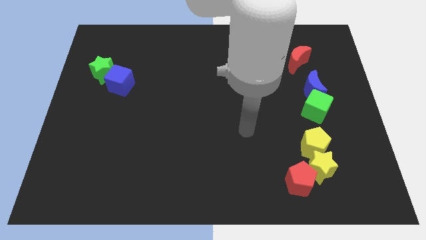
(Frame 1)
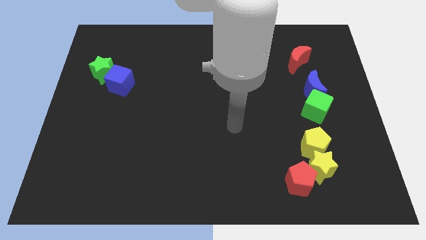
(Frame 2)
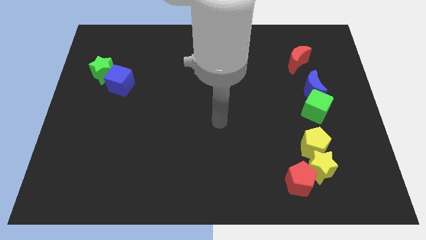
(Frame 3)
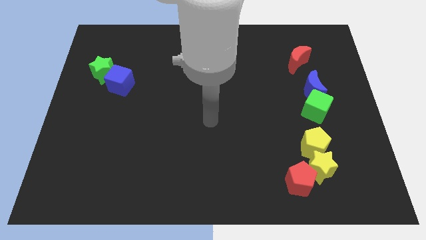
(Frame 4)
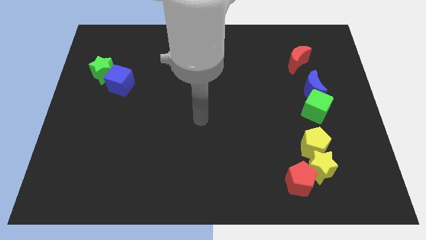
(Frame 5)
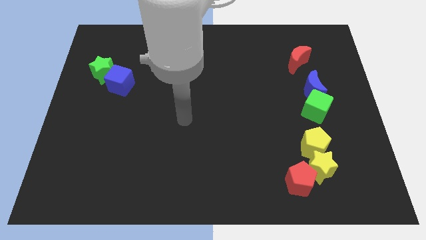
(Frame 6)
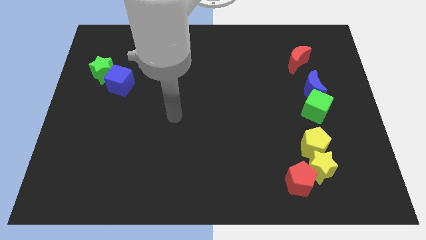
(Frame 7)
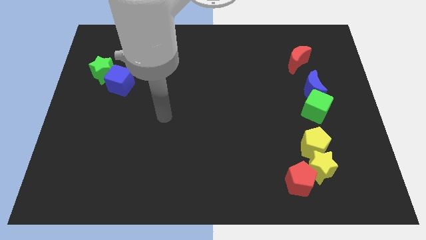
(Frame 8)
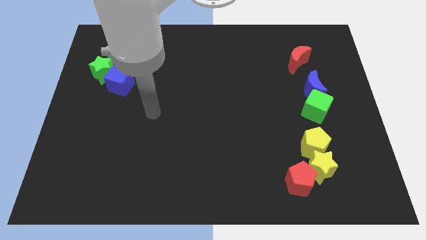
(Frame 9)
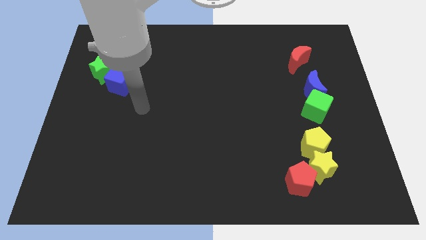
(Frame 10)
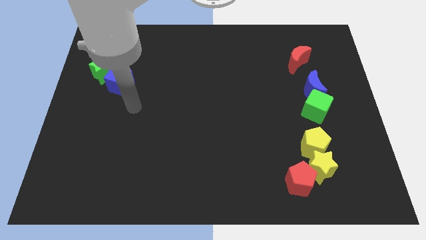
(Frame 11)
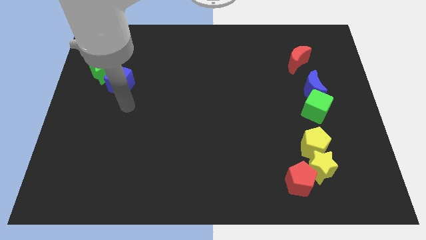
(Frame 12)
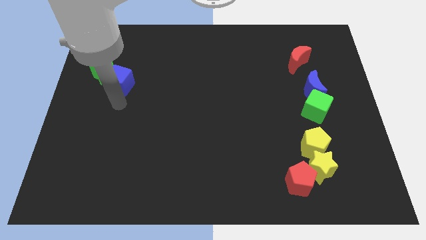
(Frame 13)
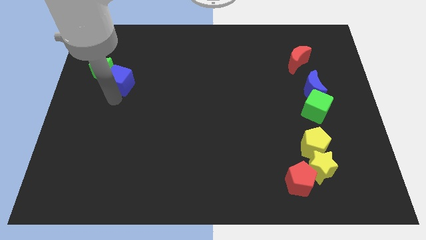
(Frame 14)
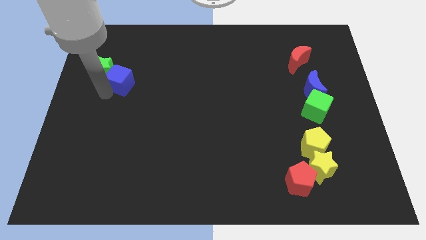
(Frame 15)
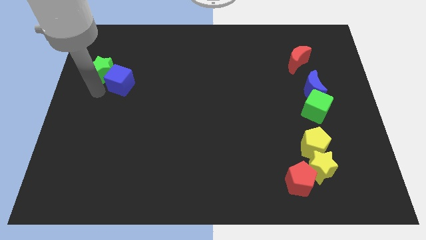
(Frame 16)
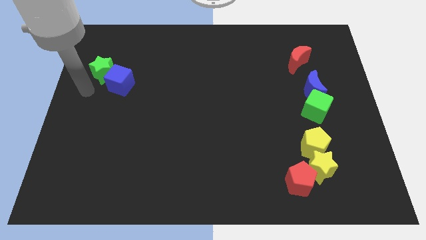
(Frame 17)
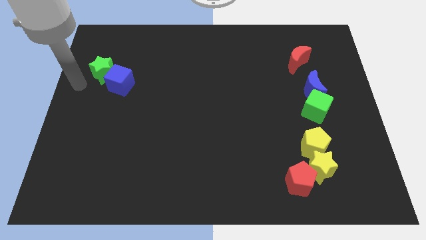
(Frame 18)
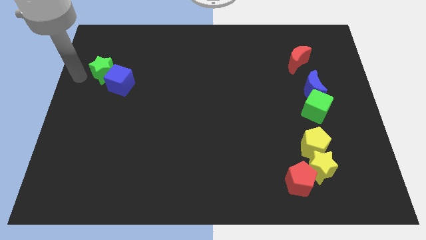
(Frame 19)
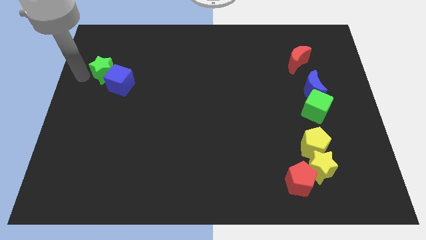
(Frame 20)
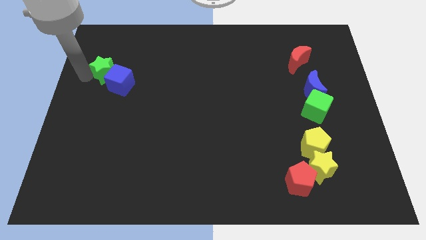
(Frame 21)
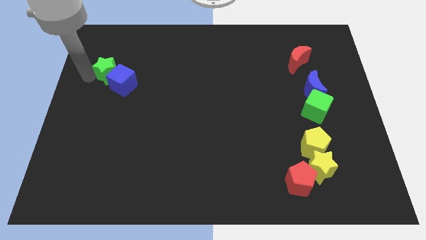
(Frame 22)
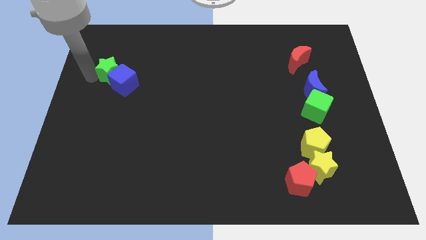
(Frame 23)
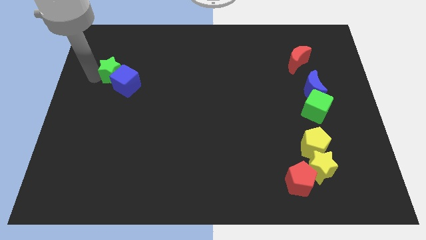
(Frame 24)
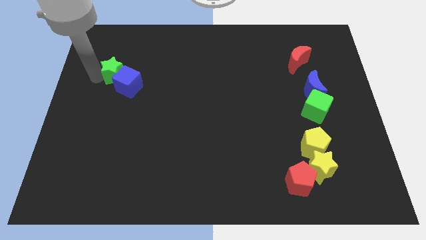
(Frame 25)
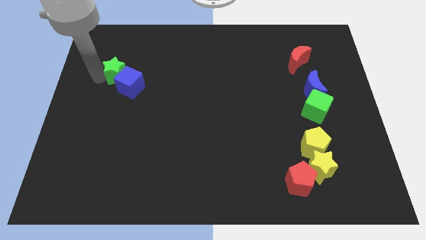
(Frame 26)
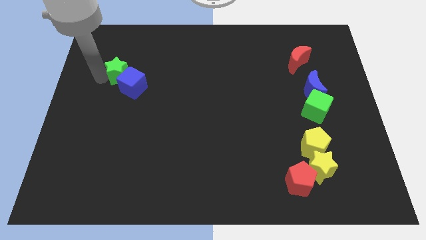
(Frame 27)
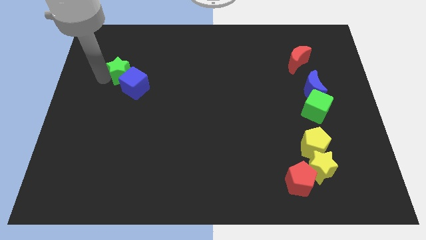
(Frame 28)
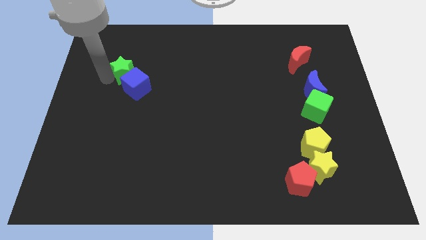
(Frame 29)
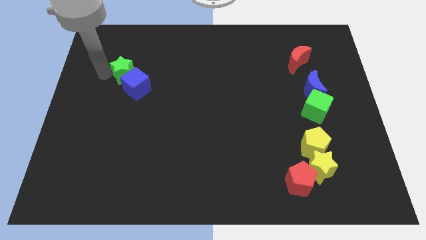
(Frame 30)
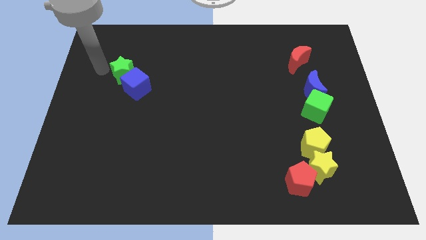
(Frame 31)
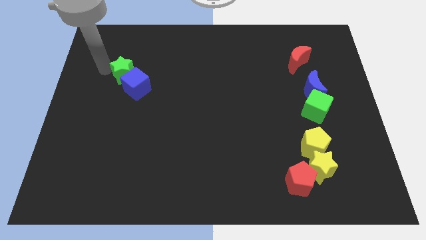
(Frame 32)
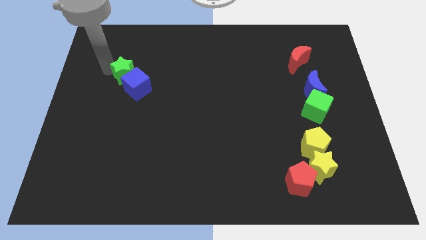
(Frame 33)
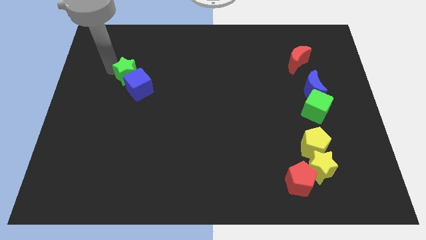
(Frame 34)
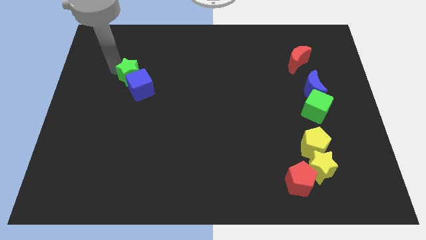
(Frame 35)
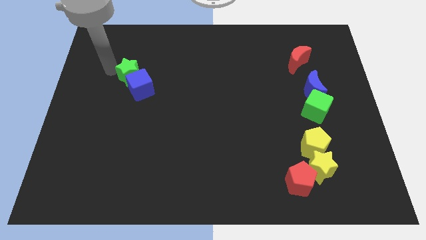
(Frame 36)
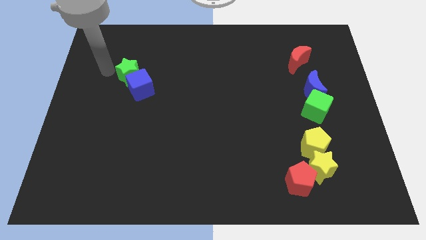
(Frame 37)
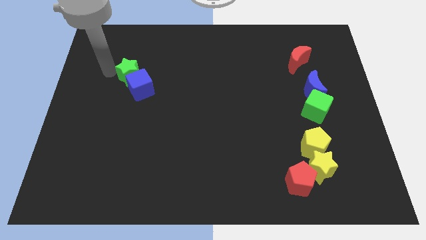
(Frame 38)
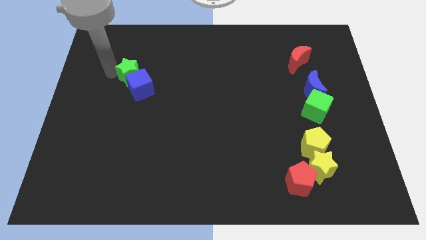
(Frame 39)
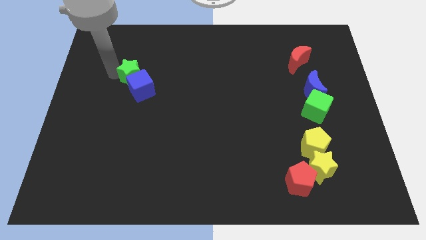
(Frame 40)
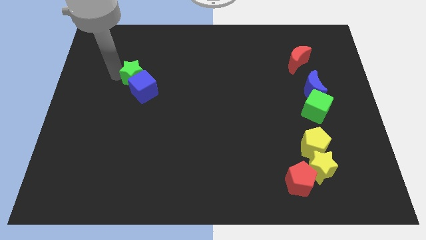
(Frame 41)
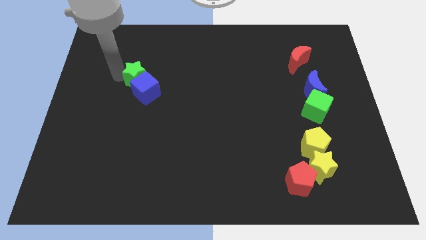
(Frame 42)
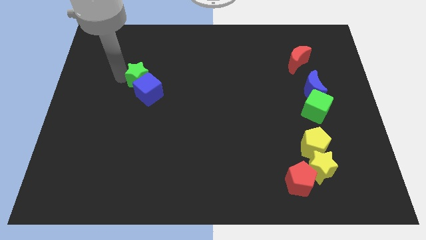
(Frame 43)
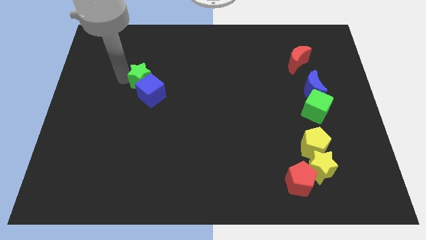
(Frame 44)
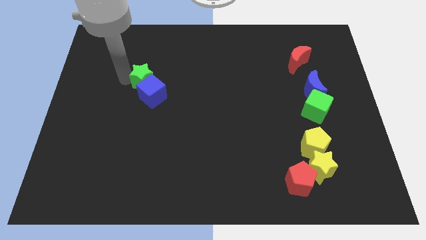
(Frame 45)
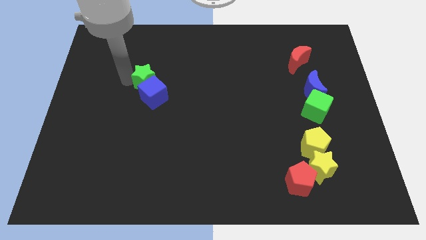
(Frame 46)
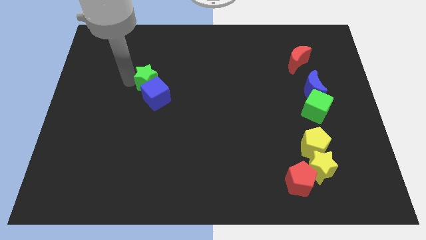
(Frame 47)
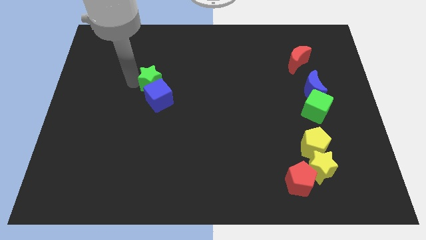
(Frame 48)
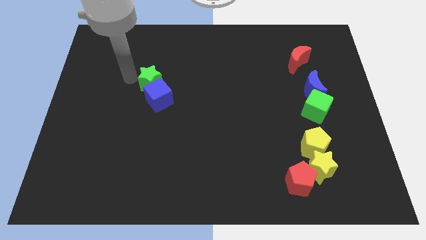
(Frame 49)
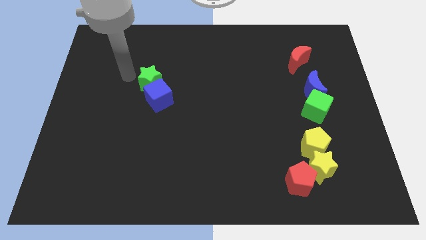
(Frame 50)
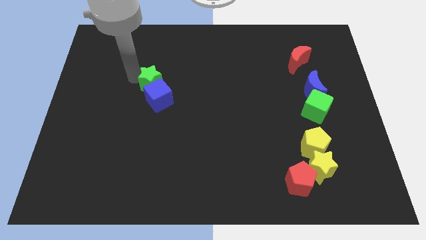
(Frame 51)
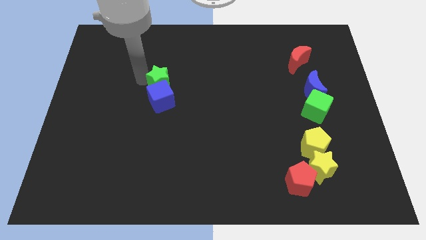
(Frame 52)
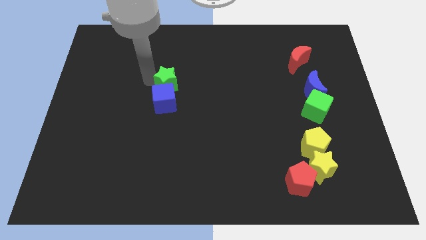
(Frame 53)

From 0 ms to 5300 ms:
slide the green star to the center of the board

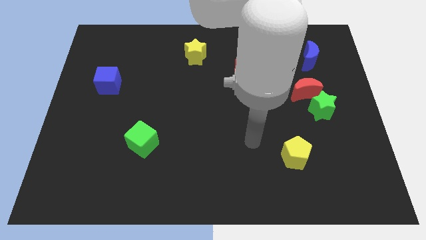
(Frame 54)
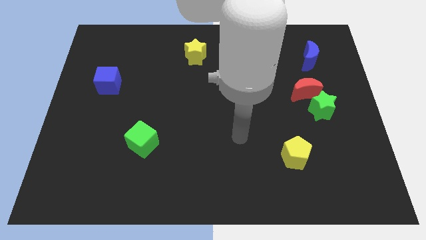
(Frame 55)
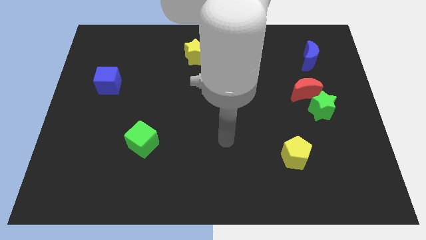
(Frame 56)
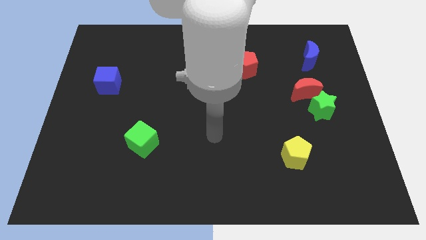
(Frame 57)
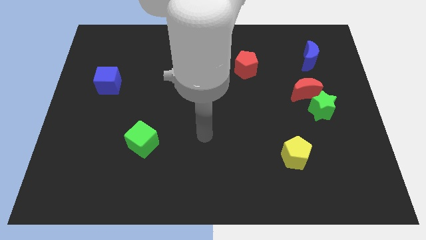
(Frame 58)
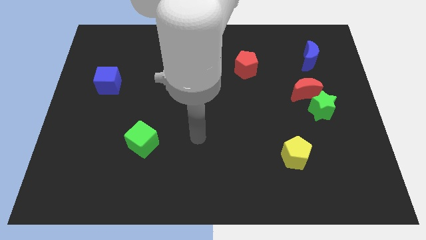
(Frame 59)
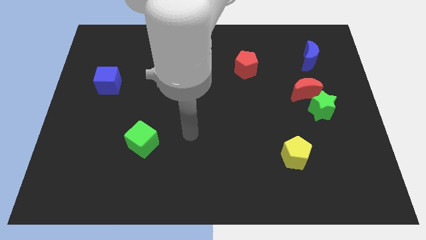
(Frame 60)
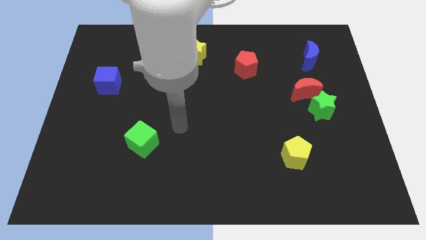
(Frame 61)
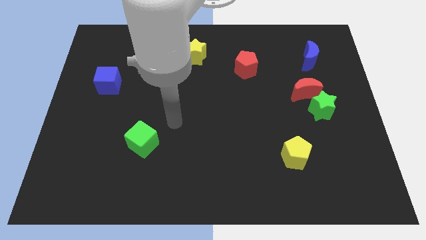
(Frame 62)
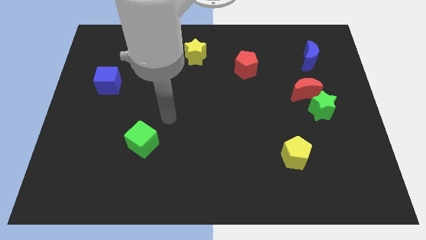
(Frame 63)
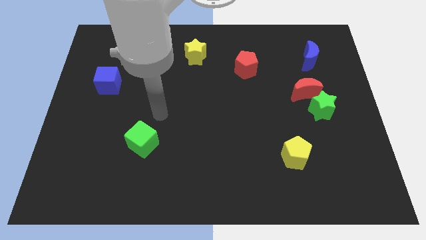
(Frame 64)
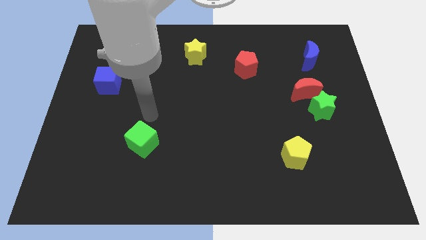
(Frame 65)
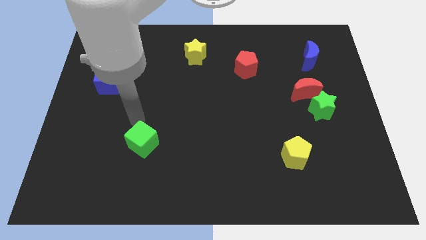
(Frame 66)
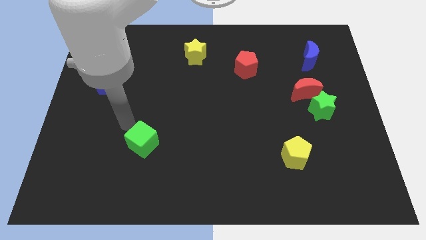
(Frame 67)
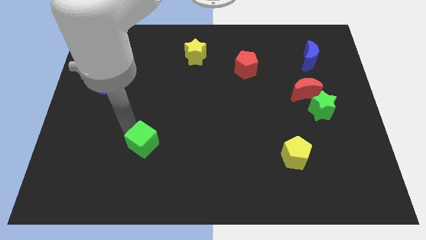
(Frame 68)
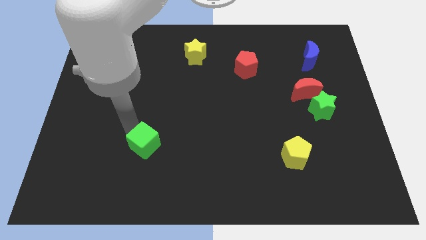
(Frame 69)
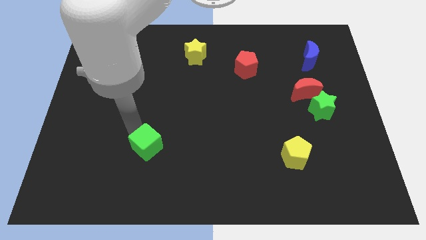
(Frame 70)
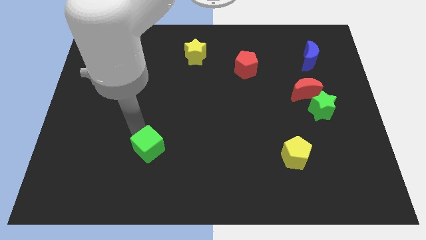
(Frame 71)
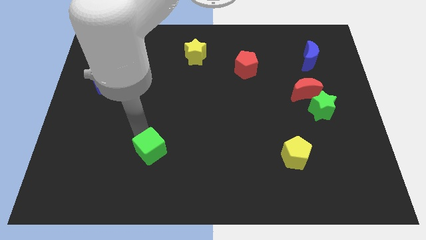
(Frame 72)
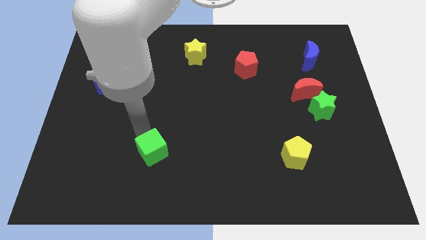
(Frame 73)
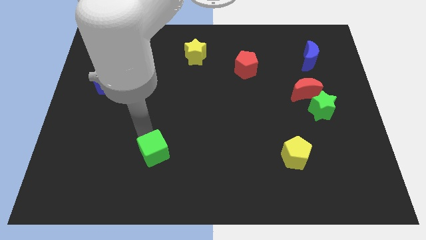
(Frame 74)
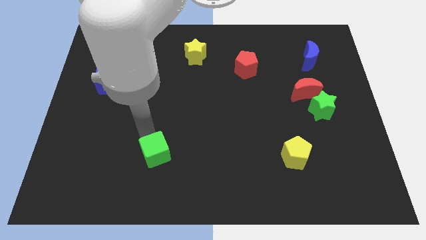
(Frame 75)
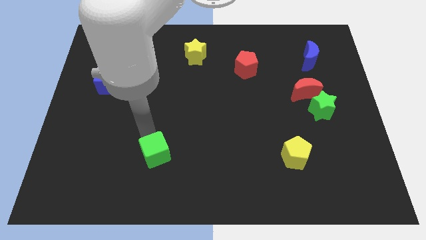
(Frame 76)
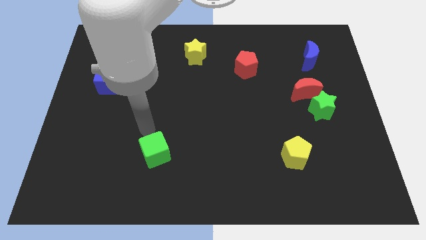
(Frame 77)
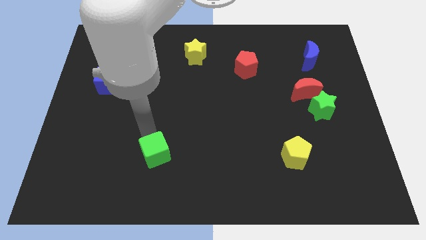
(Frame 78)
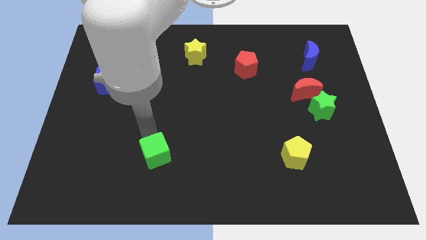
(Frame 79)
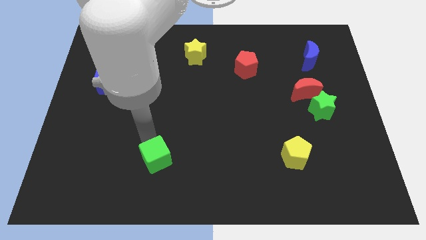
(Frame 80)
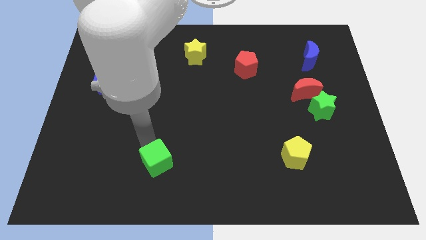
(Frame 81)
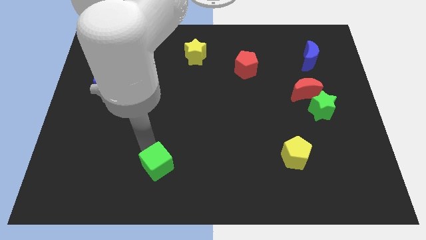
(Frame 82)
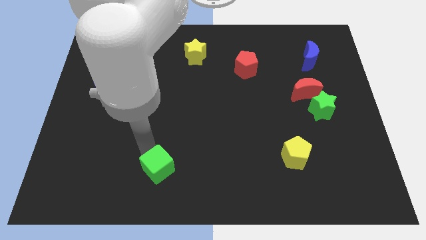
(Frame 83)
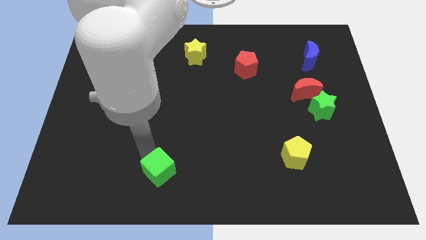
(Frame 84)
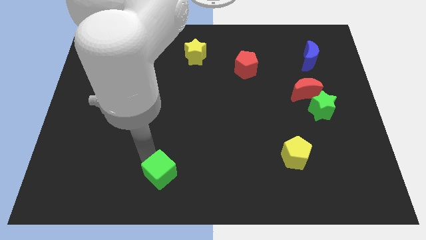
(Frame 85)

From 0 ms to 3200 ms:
put the green cube to the bottom
